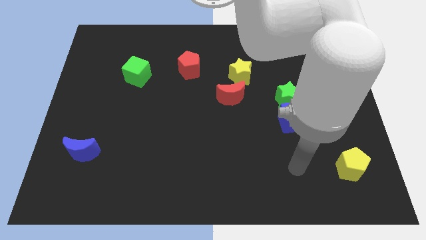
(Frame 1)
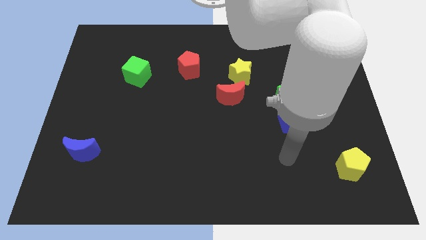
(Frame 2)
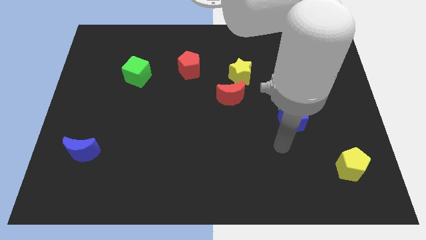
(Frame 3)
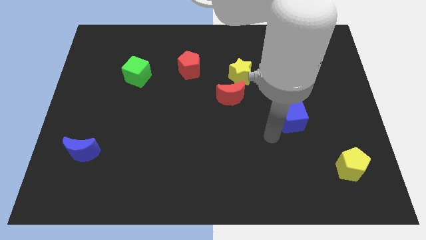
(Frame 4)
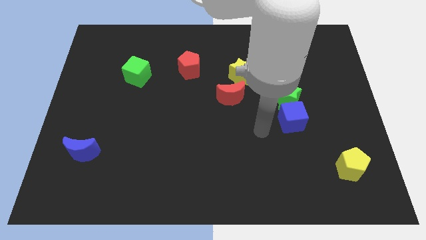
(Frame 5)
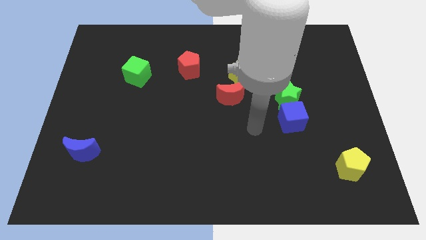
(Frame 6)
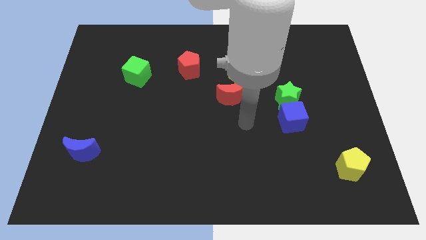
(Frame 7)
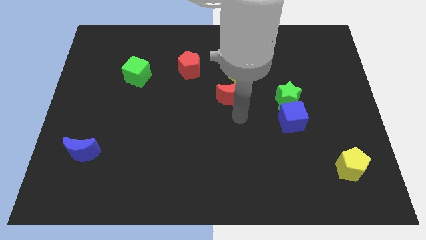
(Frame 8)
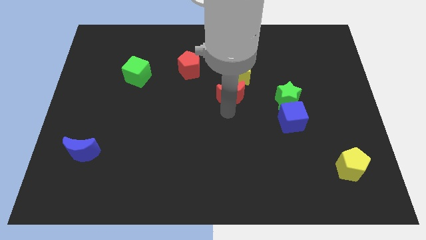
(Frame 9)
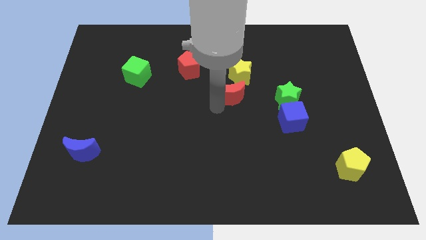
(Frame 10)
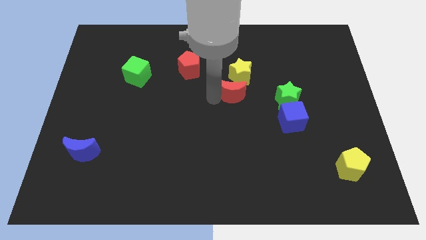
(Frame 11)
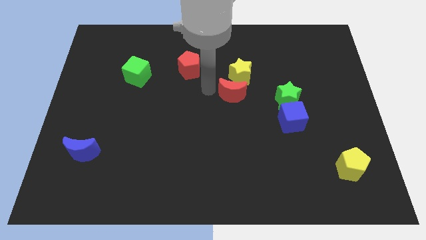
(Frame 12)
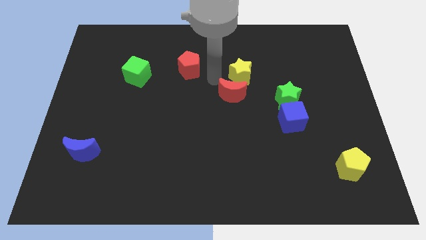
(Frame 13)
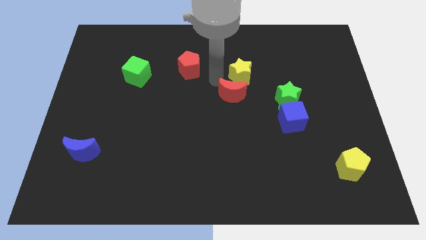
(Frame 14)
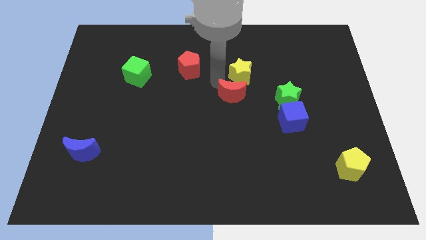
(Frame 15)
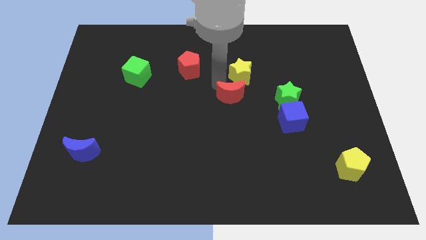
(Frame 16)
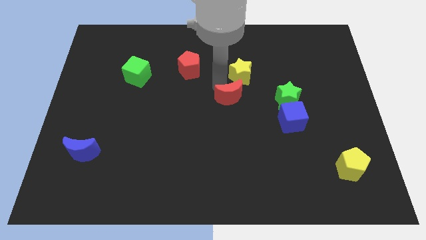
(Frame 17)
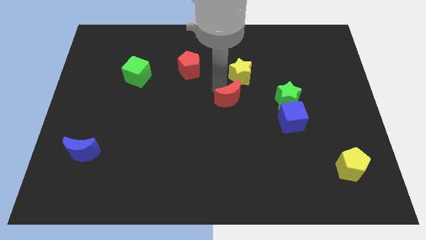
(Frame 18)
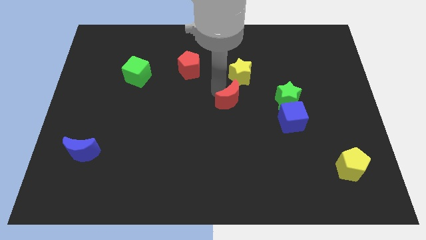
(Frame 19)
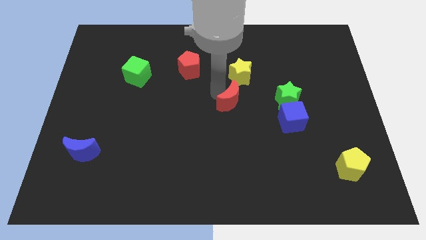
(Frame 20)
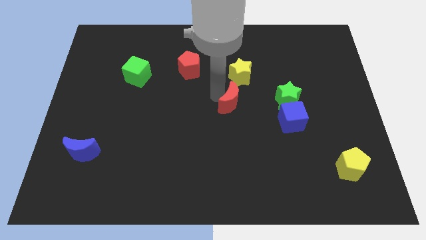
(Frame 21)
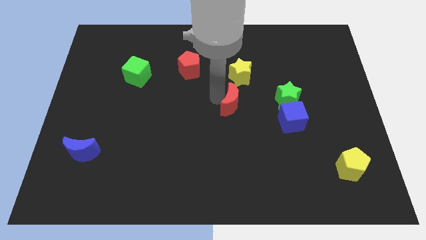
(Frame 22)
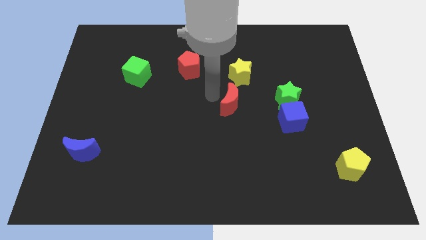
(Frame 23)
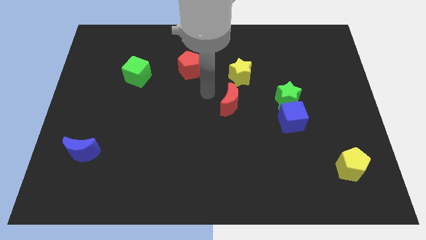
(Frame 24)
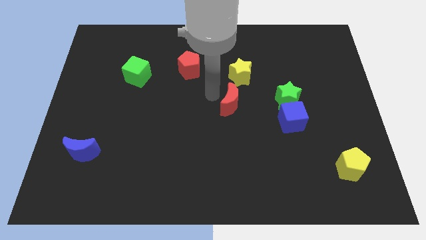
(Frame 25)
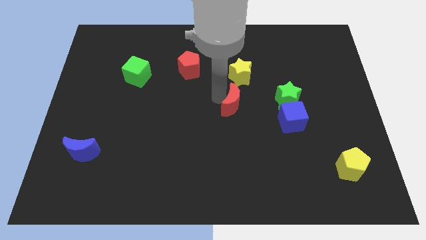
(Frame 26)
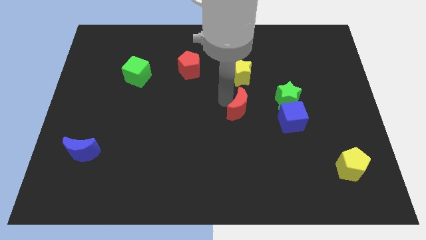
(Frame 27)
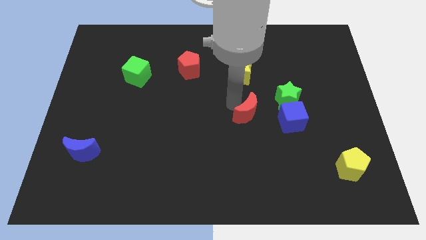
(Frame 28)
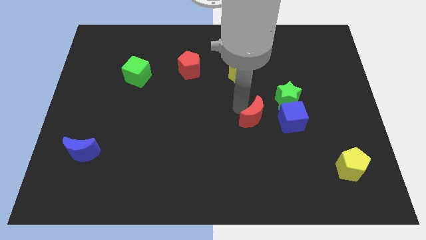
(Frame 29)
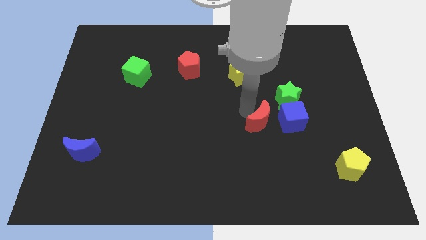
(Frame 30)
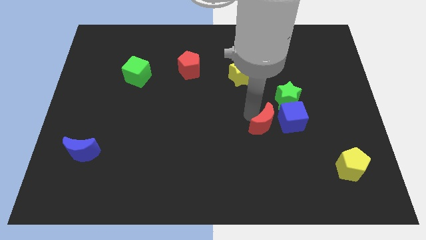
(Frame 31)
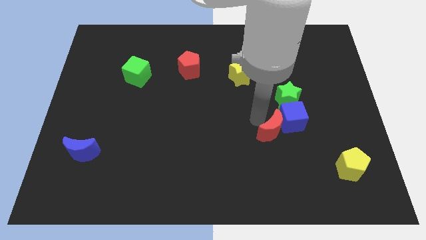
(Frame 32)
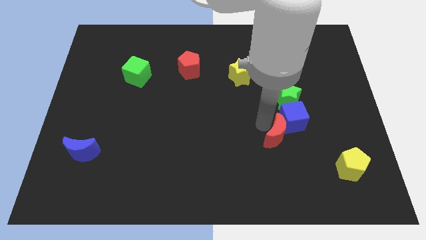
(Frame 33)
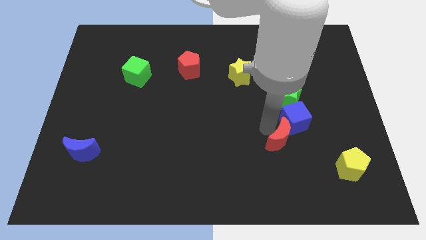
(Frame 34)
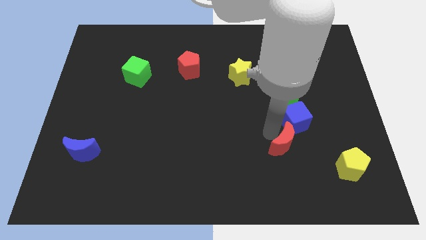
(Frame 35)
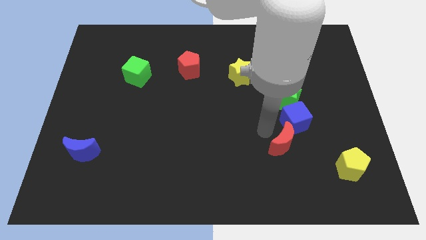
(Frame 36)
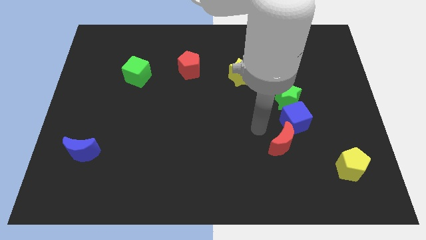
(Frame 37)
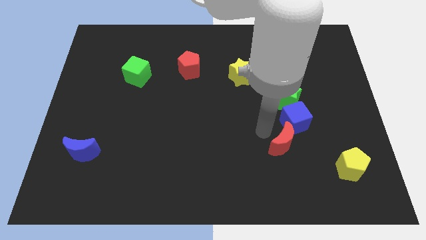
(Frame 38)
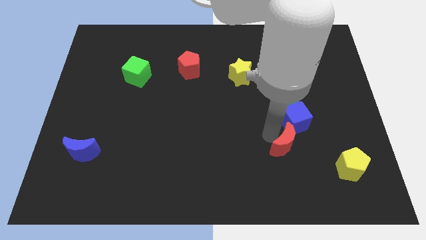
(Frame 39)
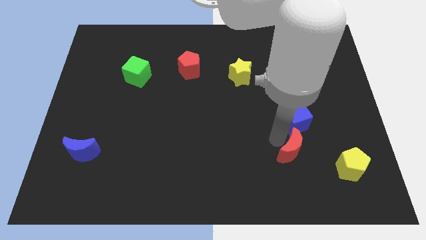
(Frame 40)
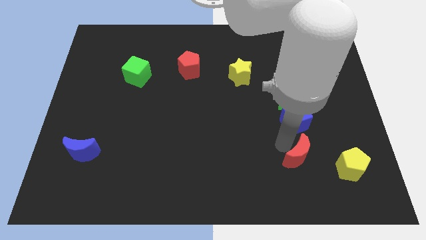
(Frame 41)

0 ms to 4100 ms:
push the red moon down and to the right

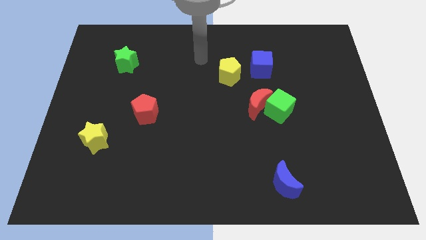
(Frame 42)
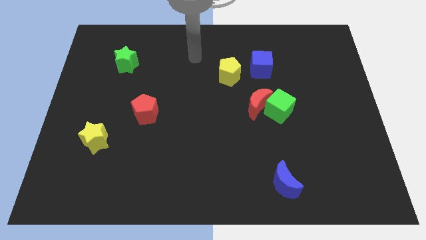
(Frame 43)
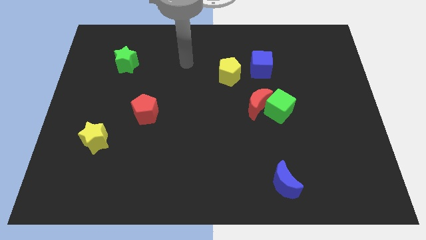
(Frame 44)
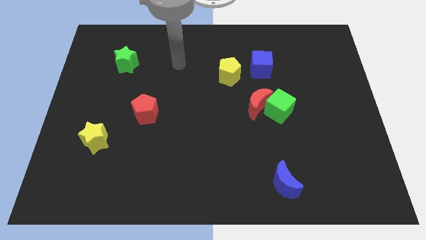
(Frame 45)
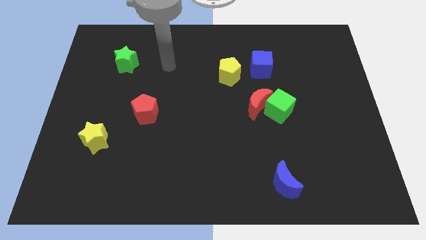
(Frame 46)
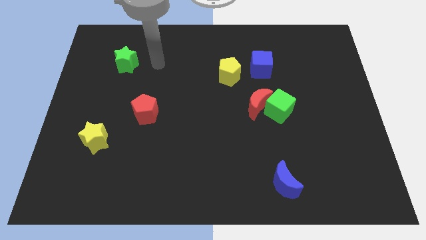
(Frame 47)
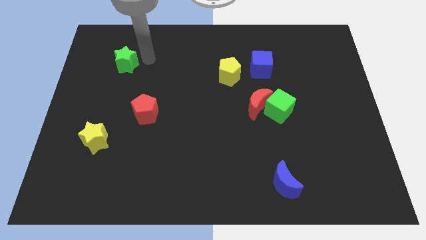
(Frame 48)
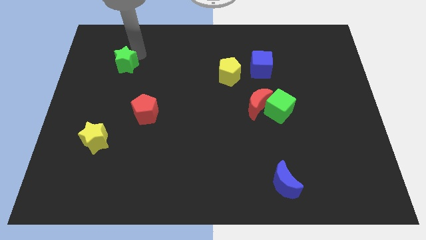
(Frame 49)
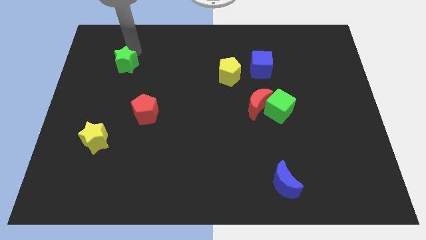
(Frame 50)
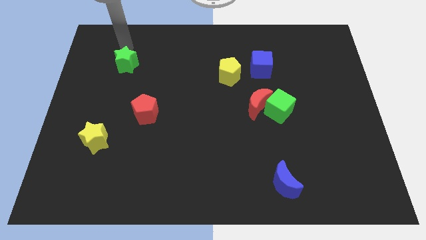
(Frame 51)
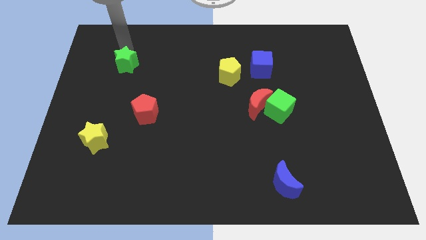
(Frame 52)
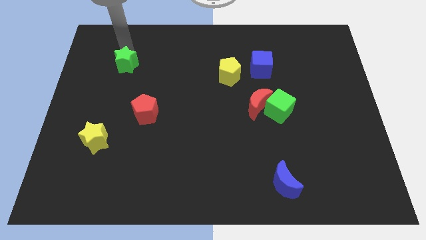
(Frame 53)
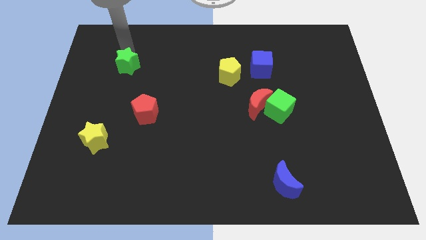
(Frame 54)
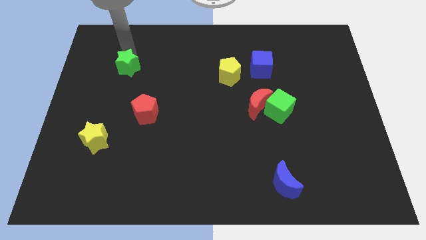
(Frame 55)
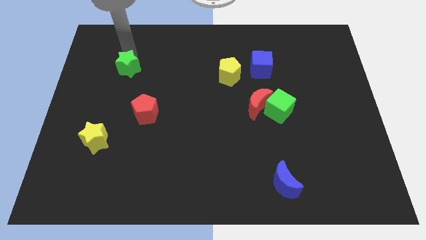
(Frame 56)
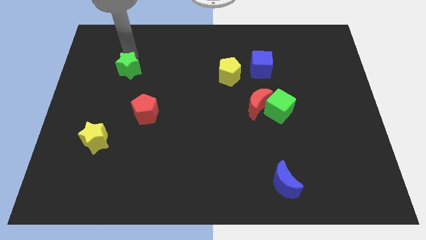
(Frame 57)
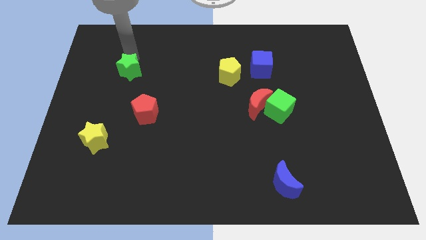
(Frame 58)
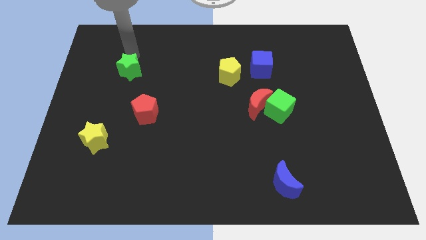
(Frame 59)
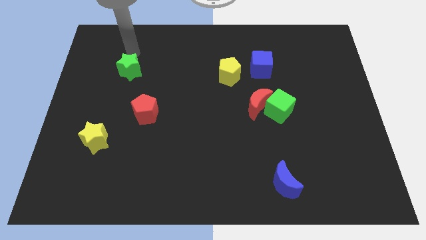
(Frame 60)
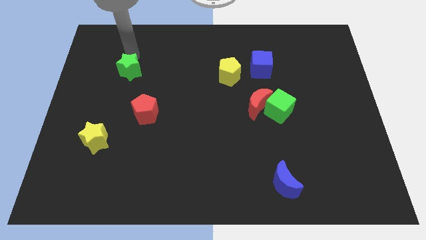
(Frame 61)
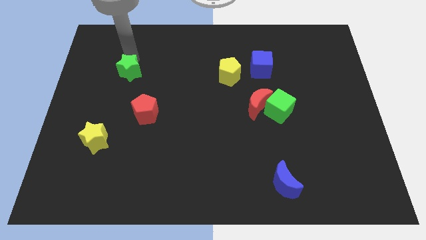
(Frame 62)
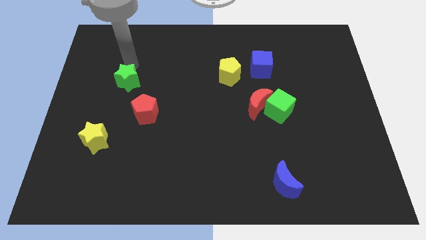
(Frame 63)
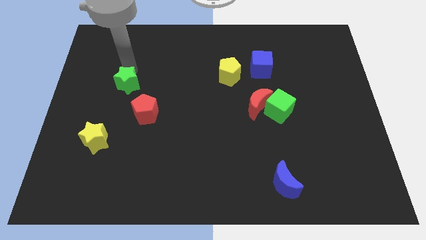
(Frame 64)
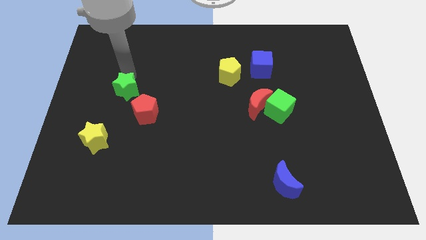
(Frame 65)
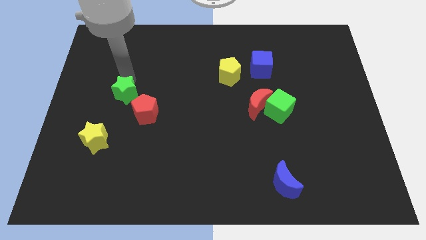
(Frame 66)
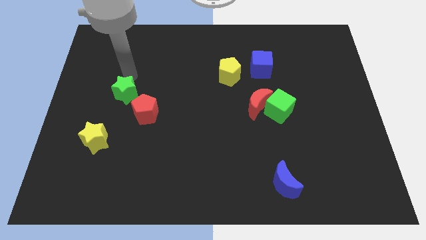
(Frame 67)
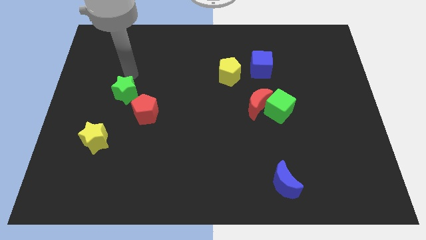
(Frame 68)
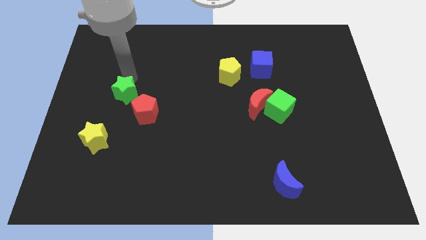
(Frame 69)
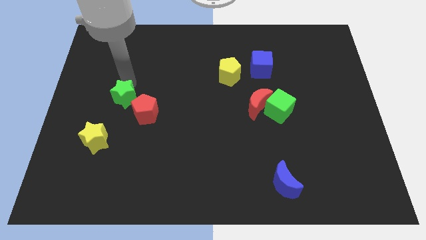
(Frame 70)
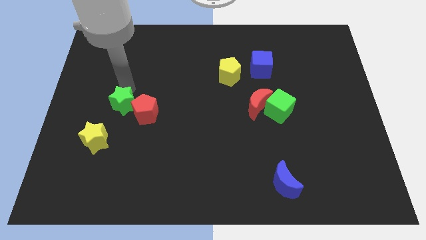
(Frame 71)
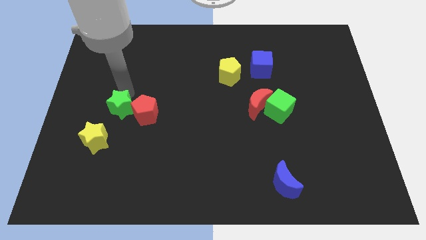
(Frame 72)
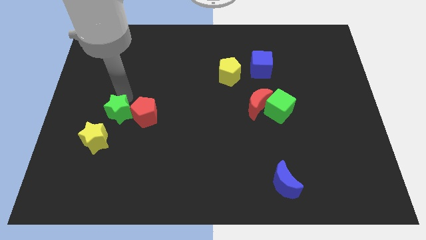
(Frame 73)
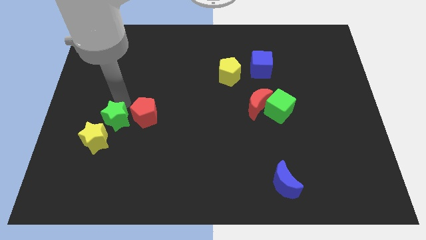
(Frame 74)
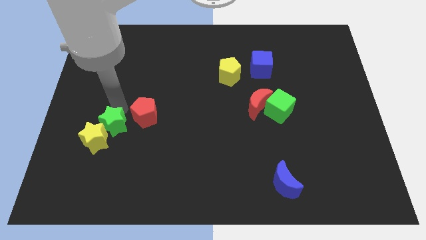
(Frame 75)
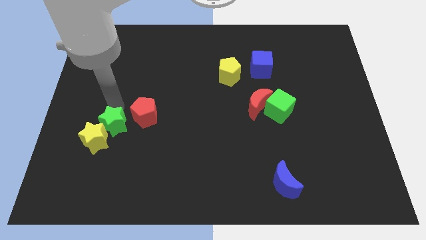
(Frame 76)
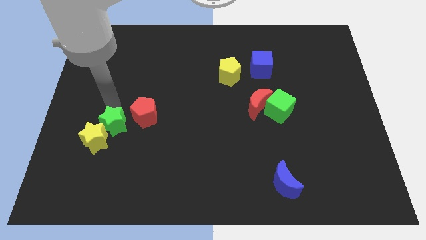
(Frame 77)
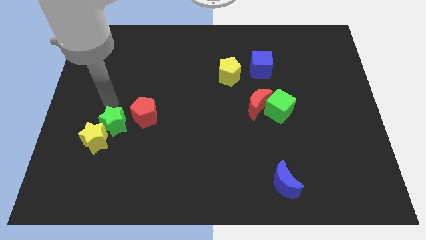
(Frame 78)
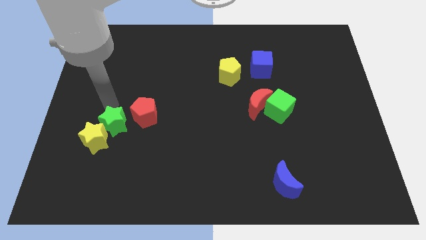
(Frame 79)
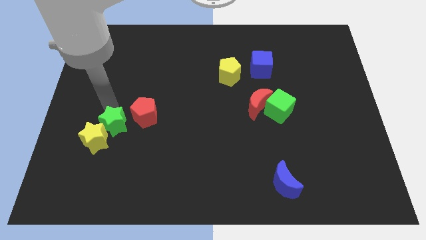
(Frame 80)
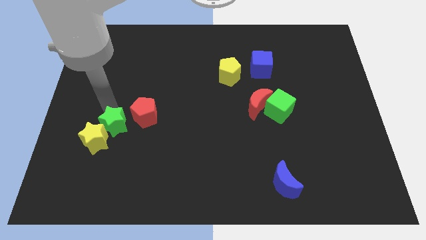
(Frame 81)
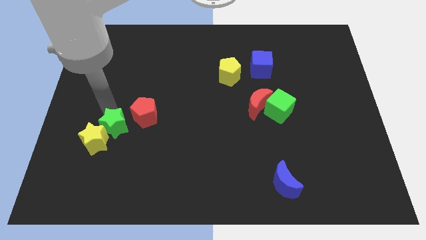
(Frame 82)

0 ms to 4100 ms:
slide the green star downwards
